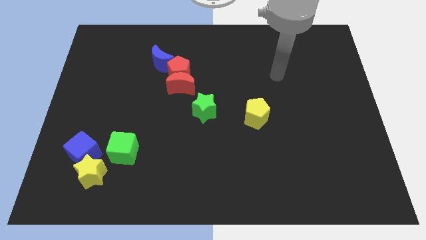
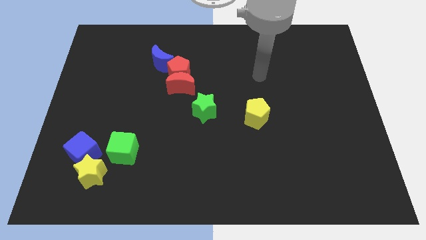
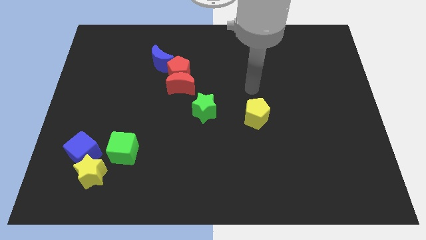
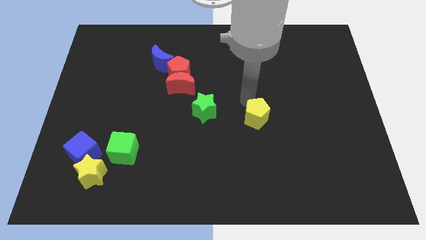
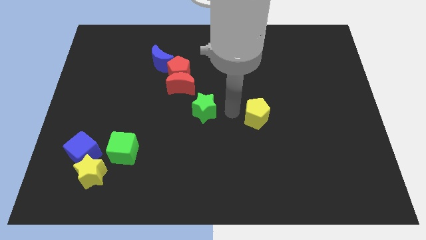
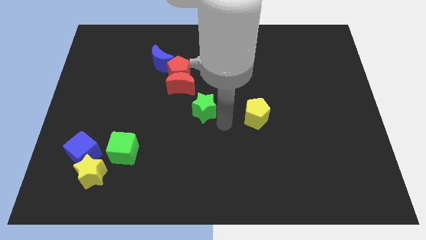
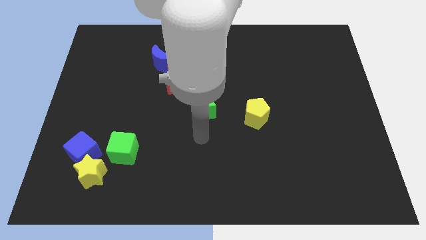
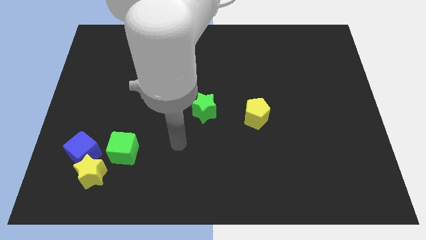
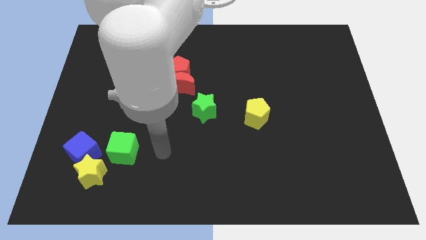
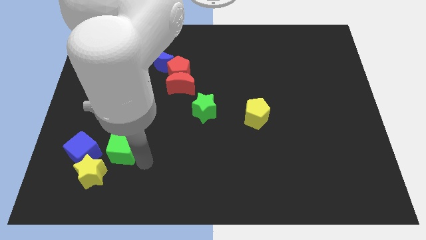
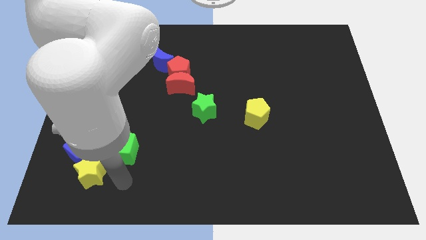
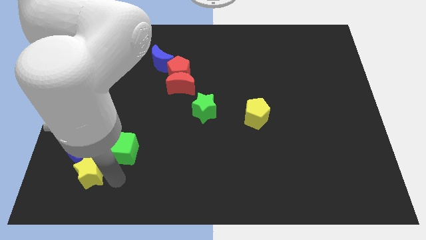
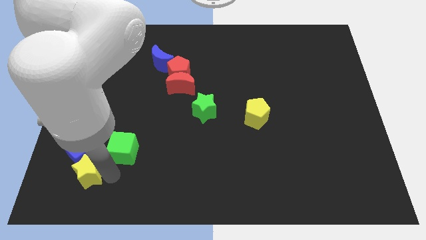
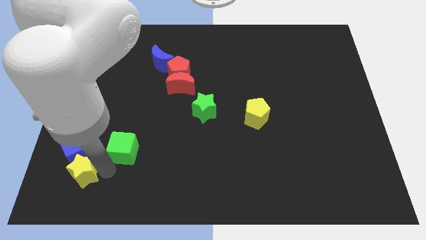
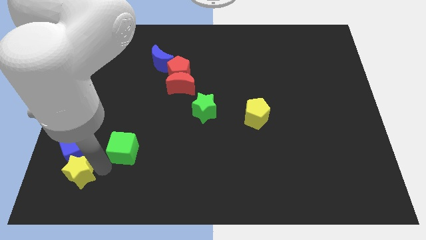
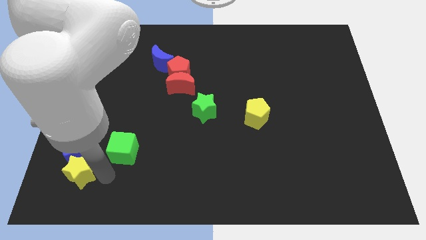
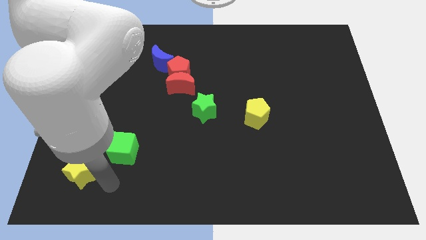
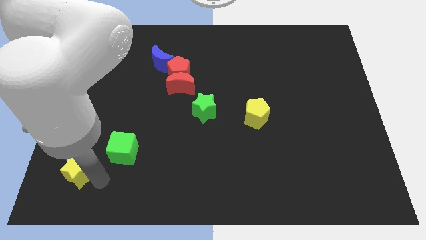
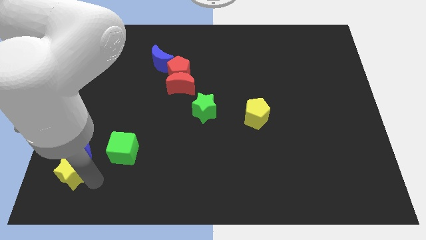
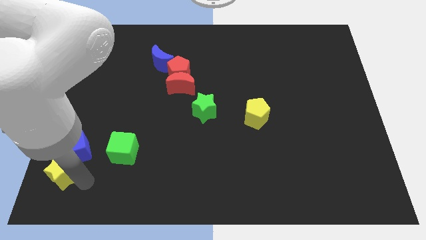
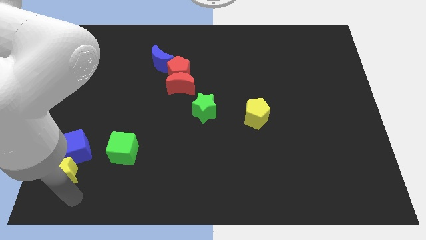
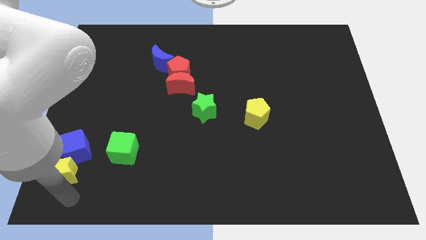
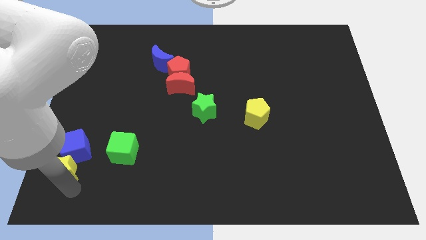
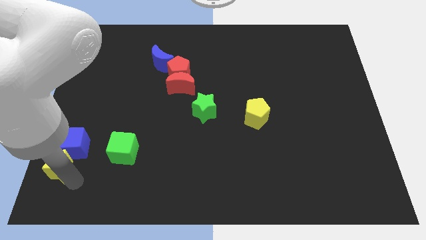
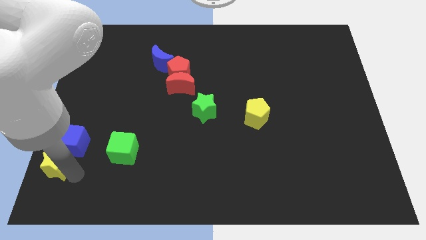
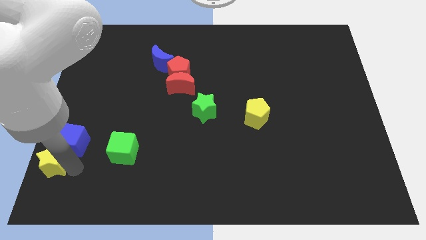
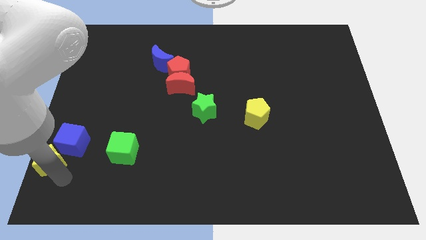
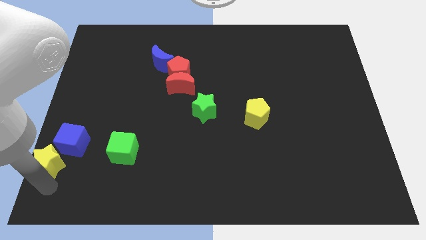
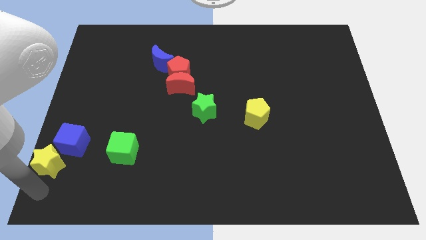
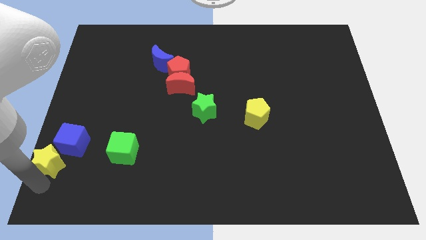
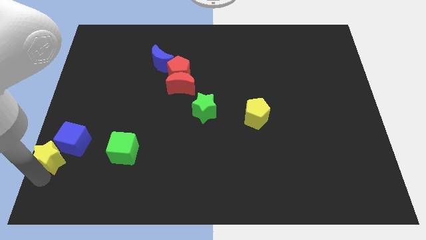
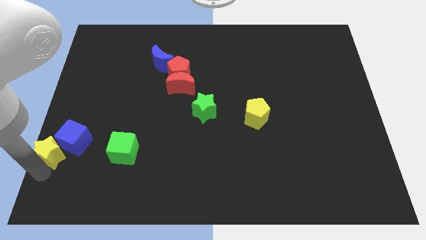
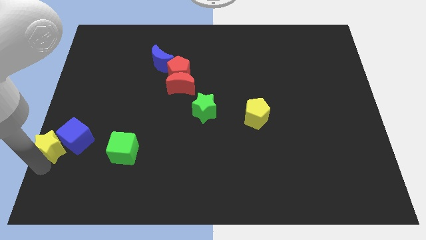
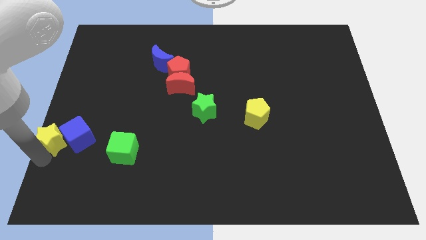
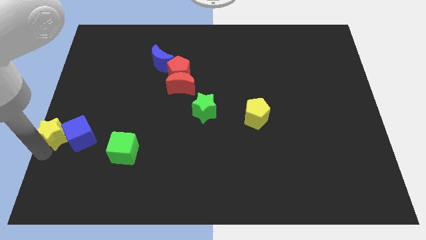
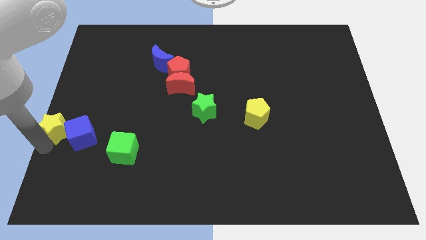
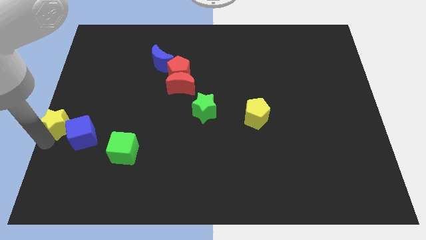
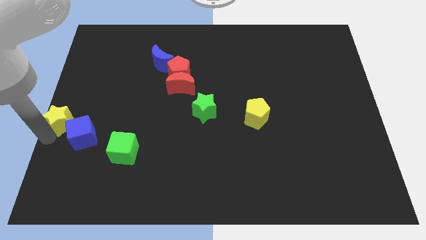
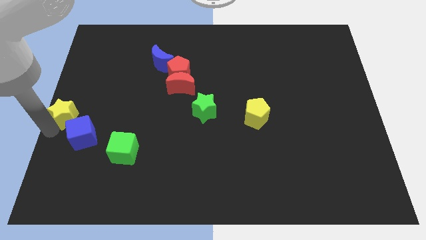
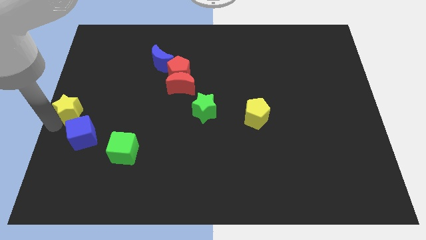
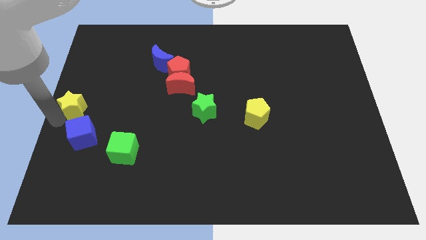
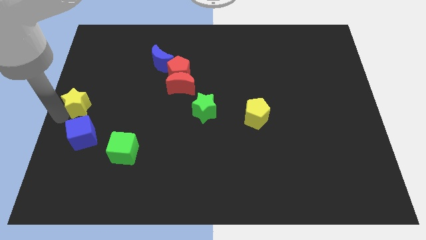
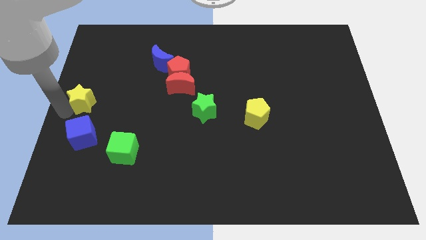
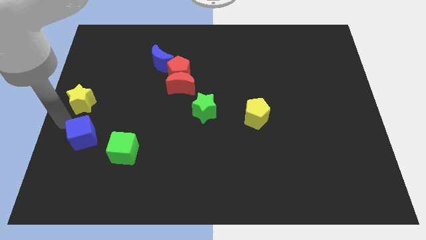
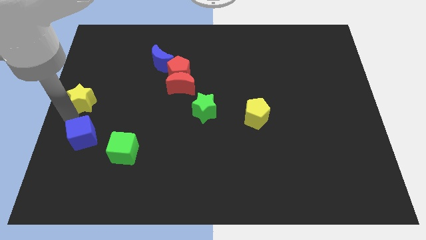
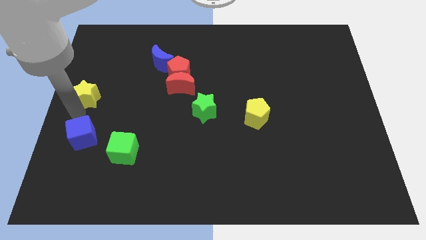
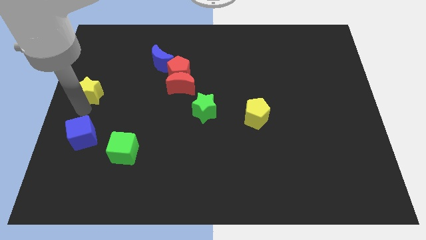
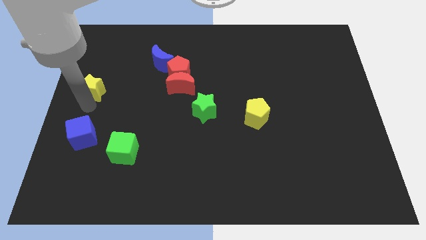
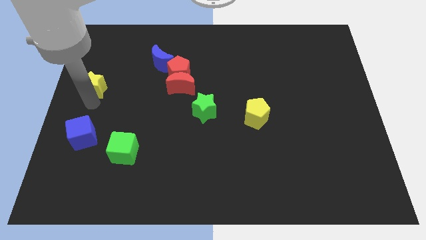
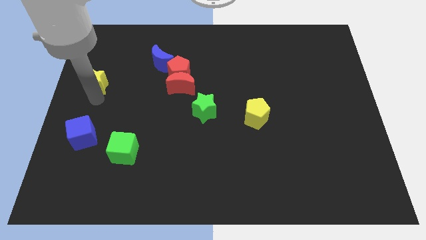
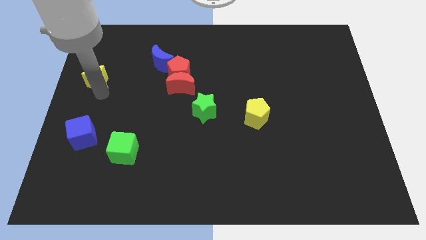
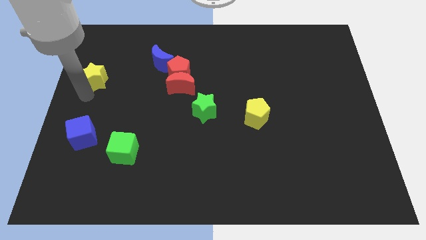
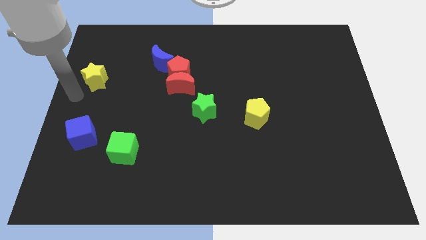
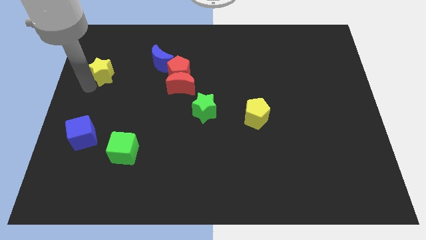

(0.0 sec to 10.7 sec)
put the yellow star to the left of the blue moon

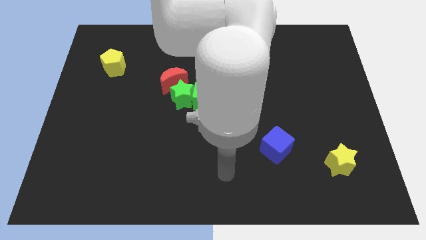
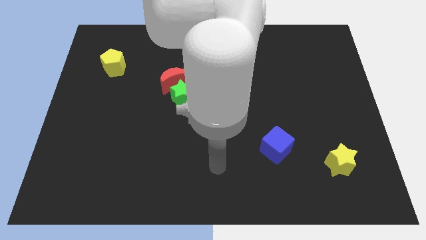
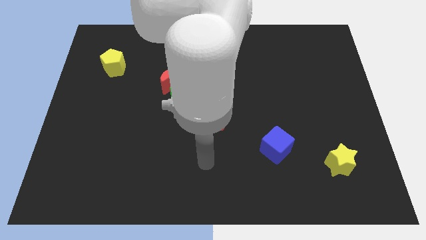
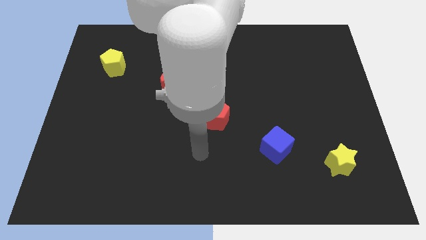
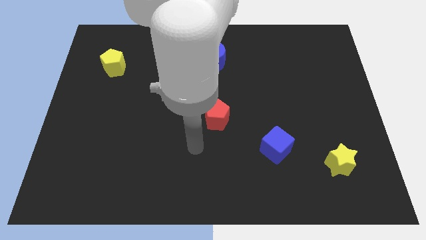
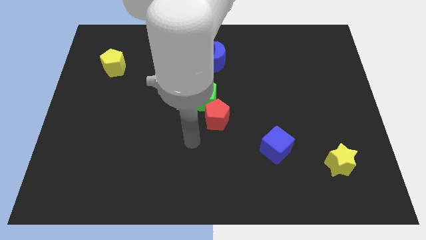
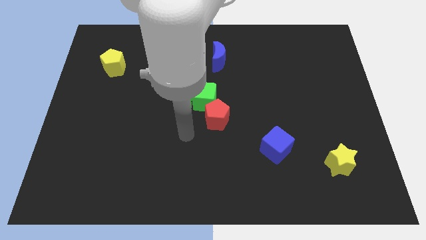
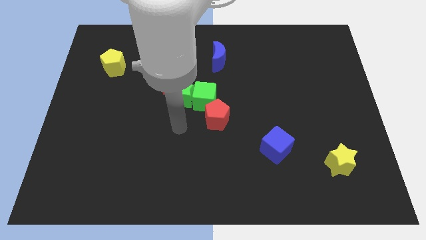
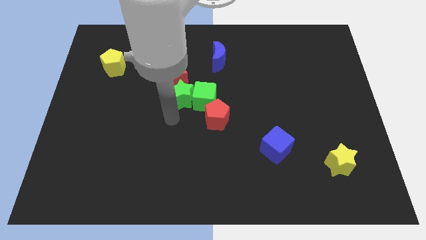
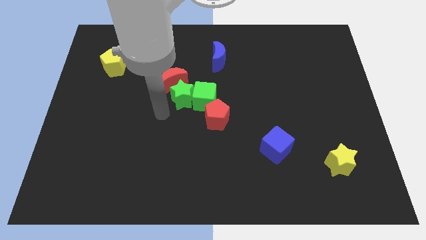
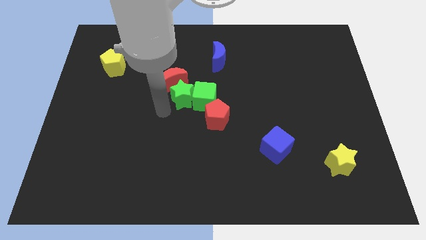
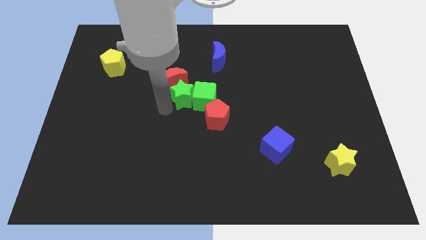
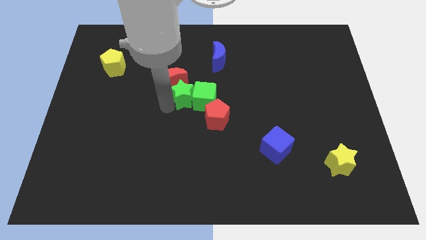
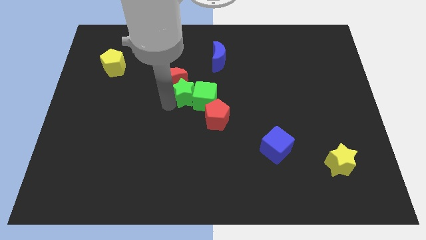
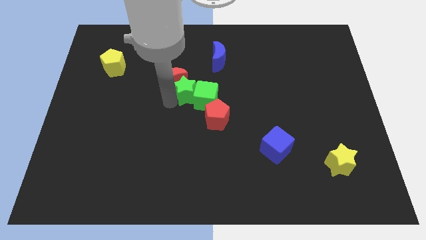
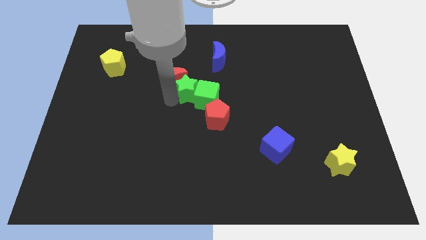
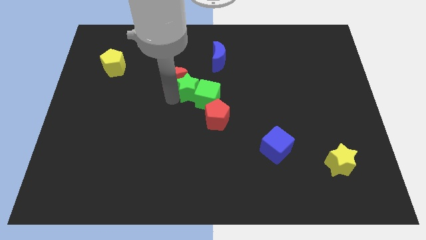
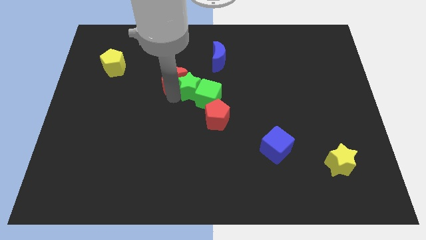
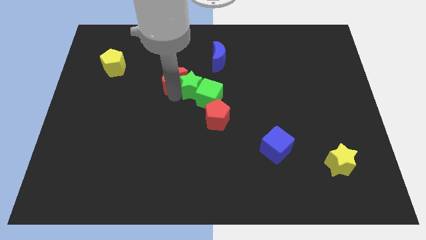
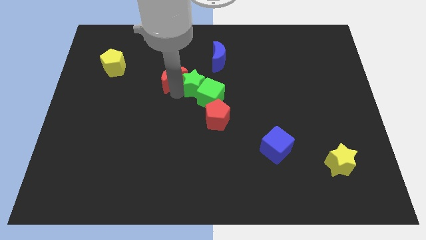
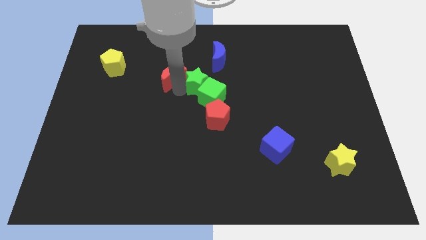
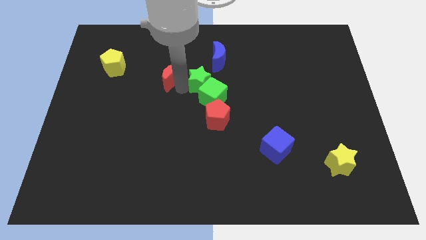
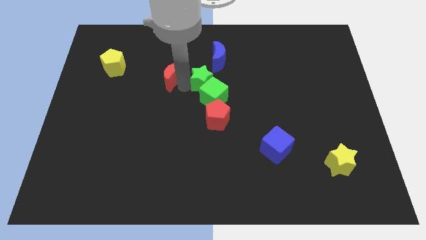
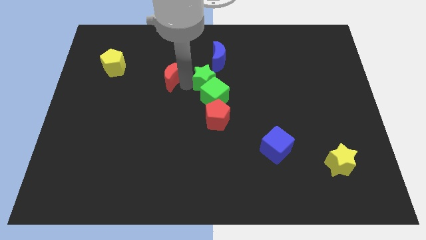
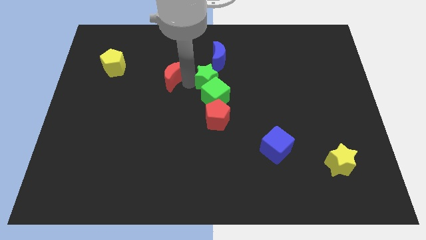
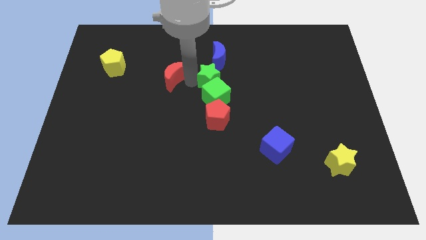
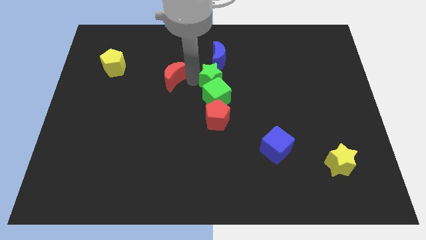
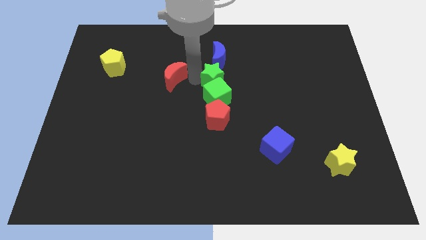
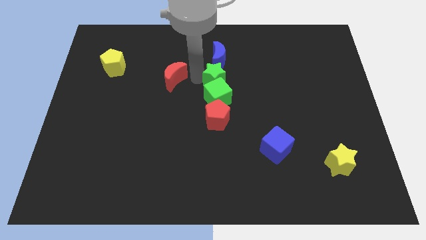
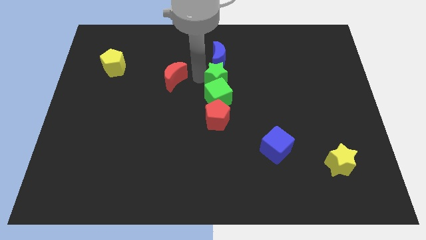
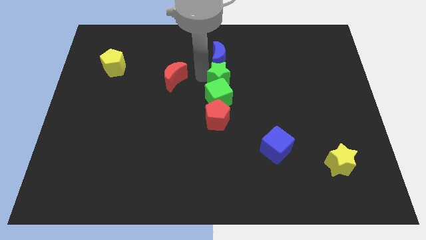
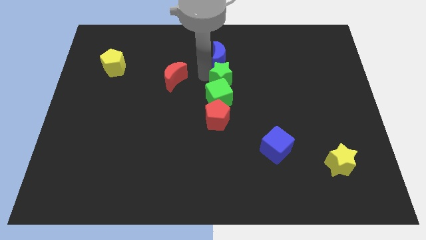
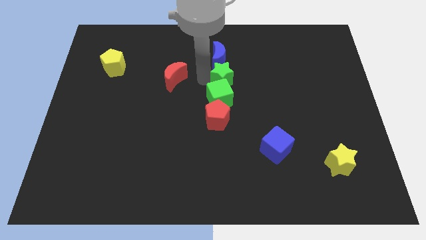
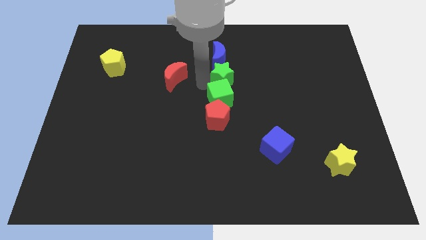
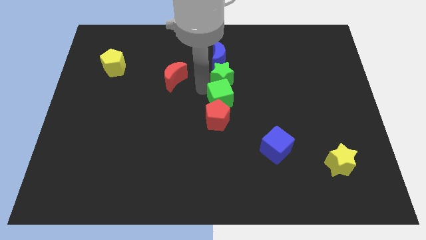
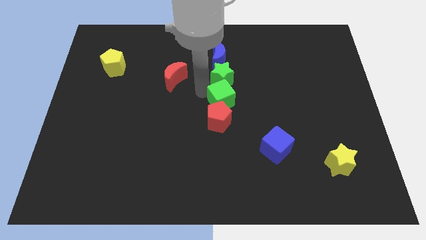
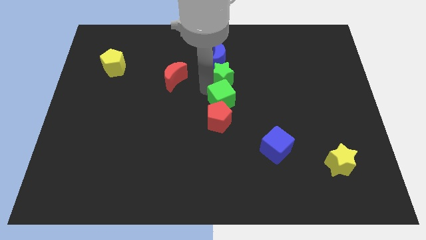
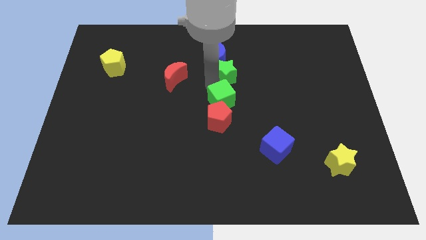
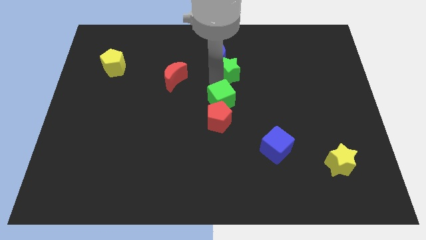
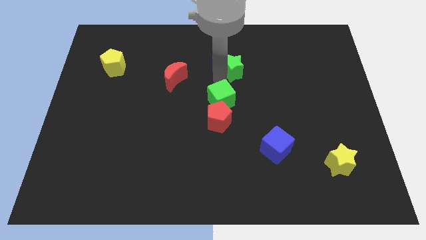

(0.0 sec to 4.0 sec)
move the green star to the right of the blue moon
